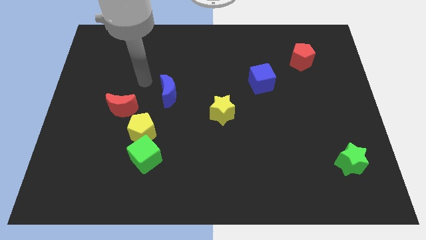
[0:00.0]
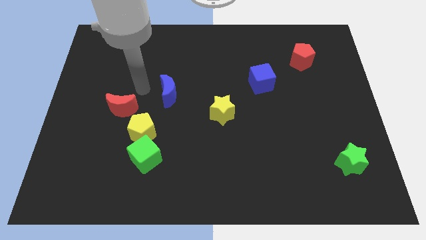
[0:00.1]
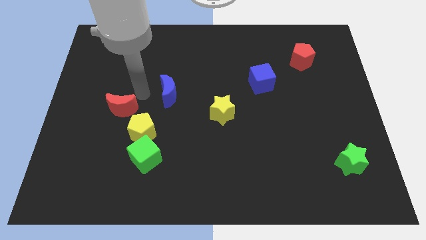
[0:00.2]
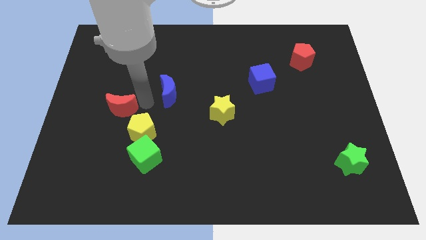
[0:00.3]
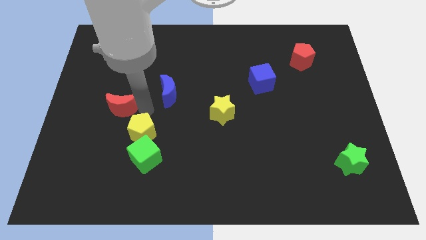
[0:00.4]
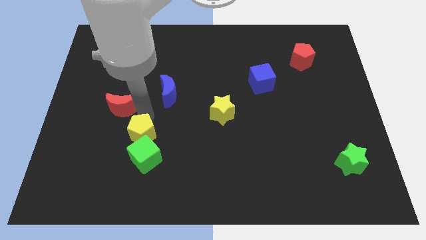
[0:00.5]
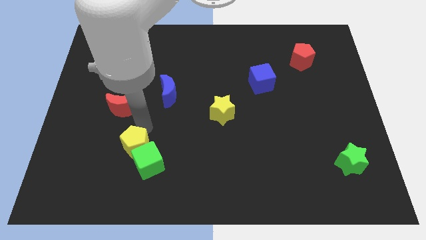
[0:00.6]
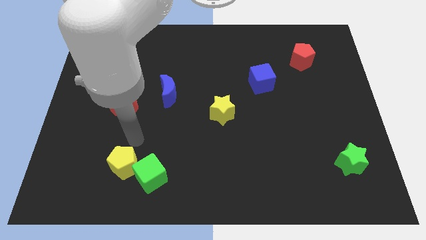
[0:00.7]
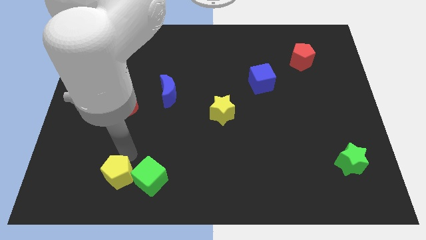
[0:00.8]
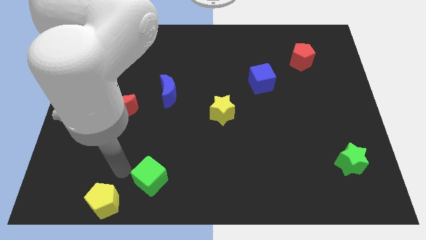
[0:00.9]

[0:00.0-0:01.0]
separate the green cube from the yellow pentagon

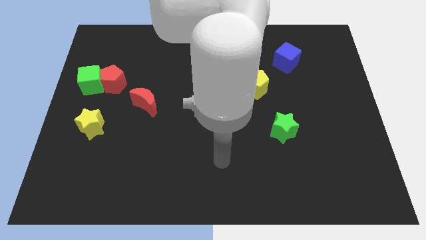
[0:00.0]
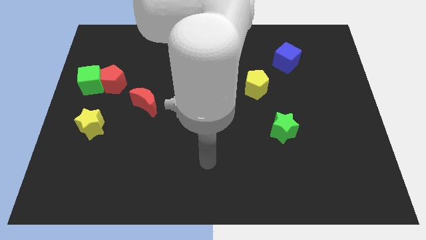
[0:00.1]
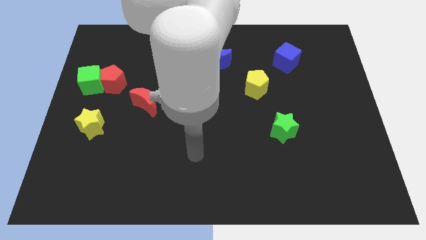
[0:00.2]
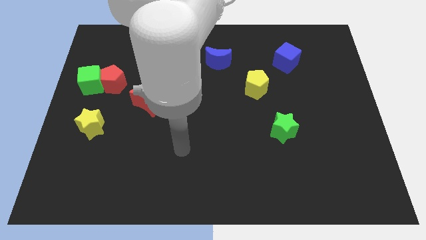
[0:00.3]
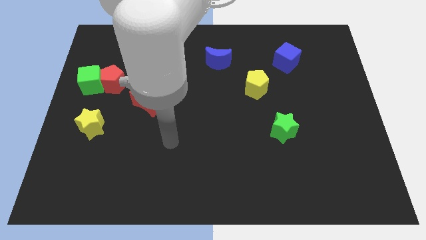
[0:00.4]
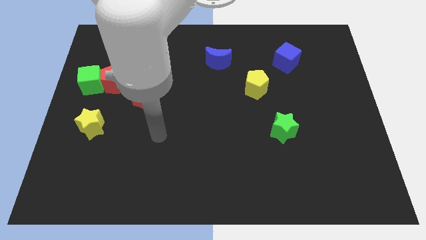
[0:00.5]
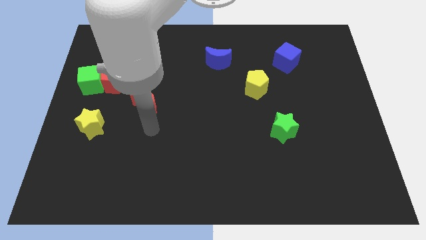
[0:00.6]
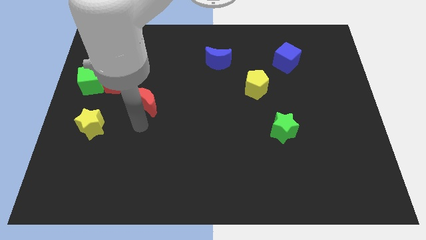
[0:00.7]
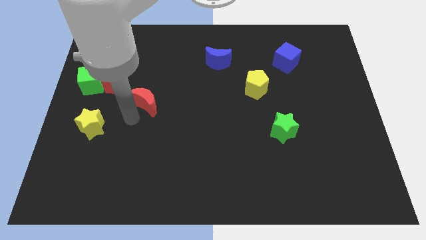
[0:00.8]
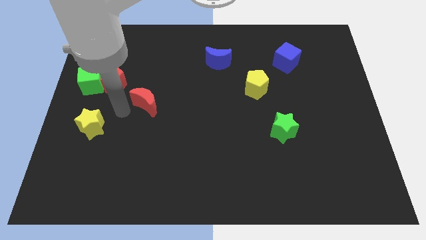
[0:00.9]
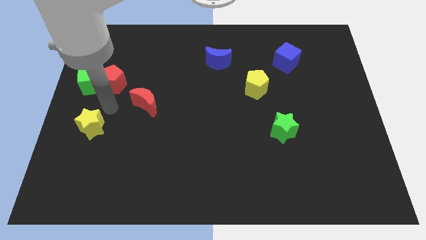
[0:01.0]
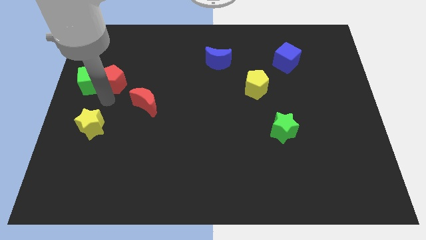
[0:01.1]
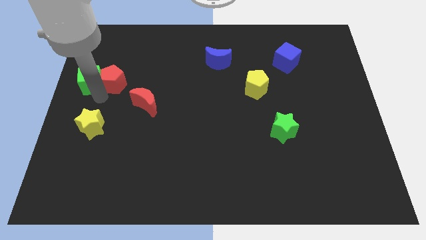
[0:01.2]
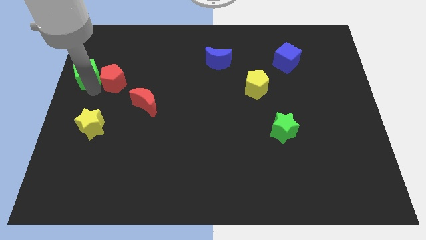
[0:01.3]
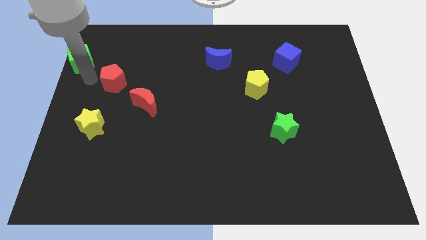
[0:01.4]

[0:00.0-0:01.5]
move the red pentagon away from the green cube

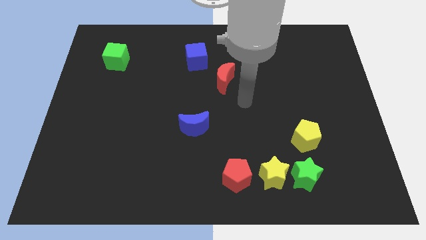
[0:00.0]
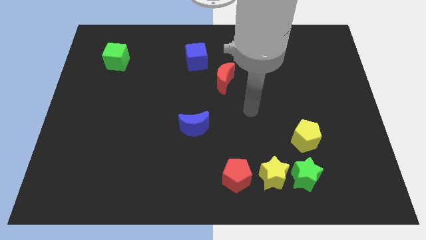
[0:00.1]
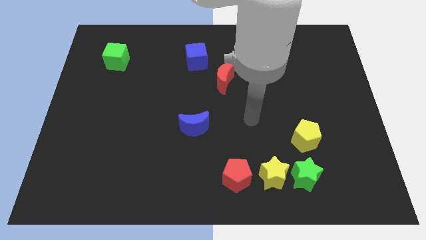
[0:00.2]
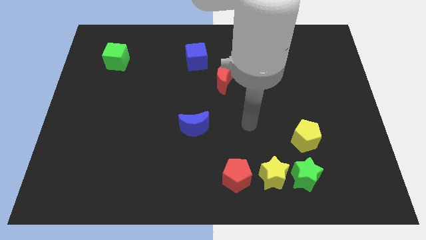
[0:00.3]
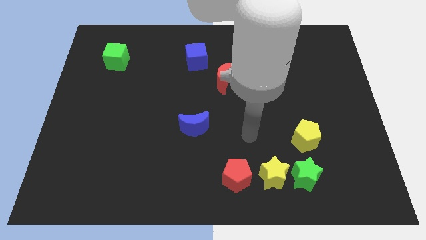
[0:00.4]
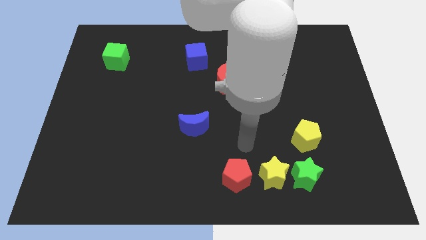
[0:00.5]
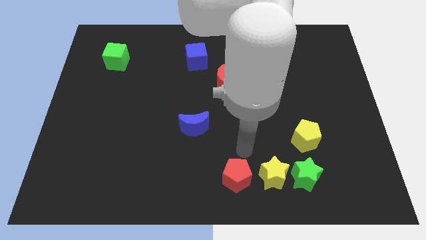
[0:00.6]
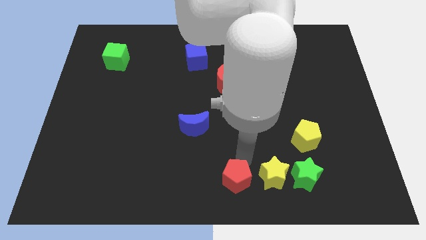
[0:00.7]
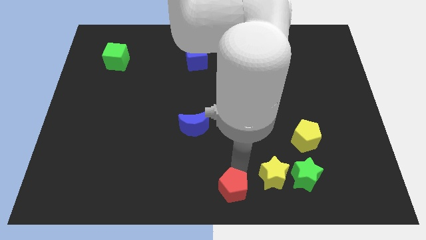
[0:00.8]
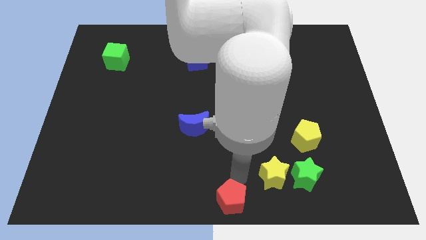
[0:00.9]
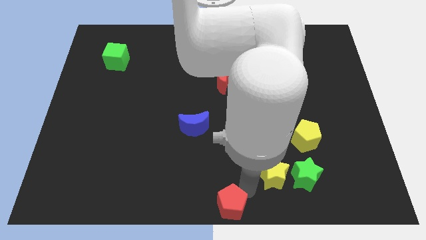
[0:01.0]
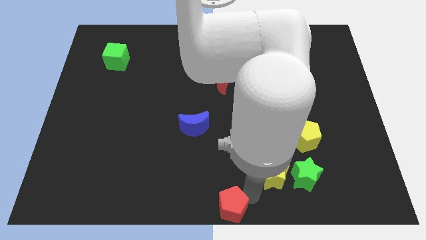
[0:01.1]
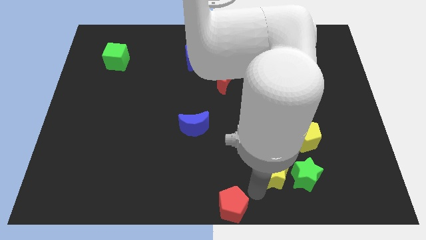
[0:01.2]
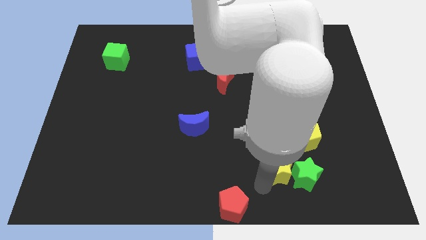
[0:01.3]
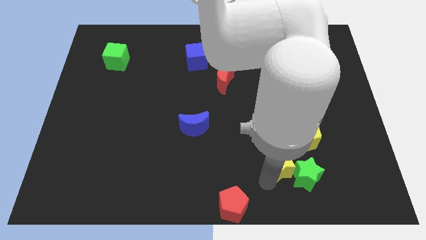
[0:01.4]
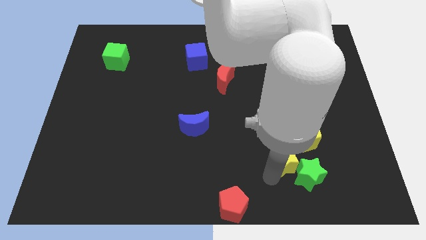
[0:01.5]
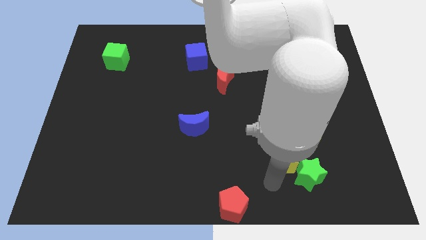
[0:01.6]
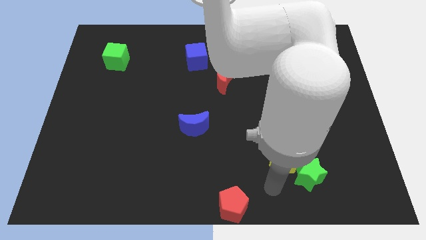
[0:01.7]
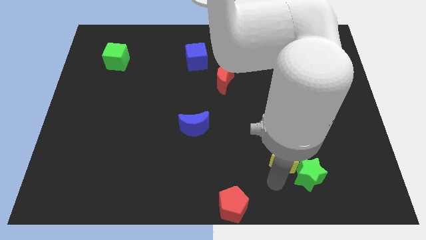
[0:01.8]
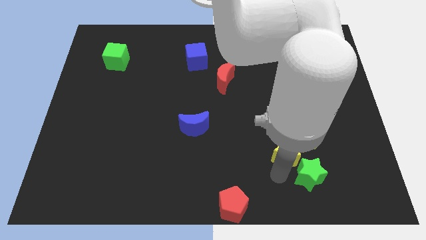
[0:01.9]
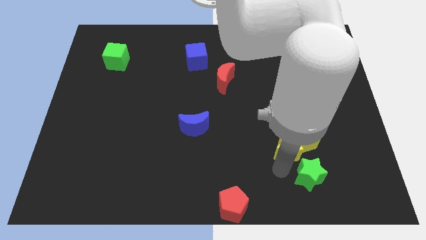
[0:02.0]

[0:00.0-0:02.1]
move the yellow star away from the green star and red pentagon

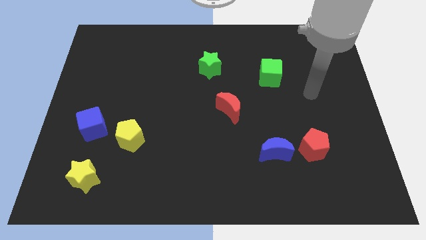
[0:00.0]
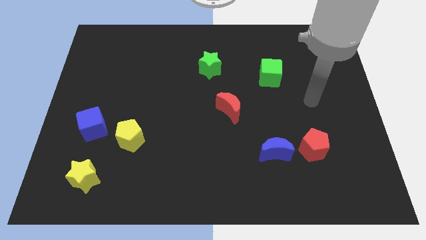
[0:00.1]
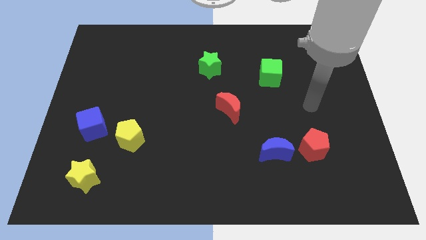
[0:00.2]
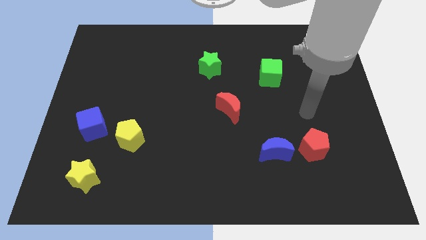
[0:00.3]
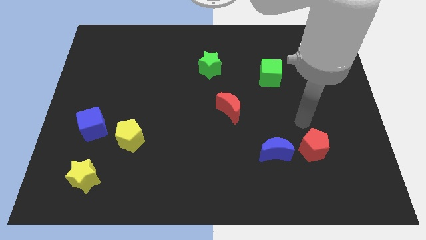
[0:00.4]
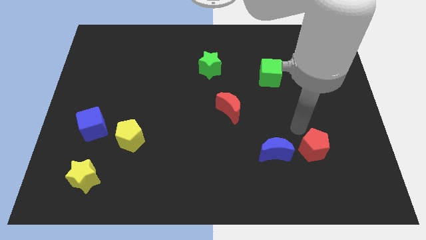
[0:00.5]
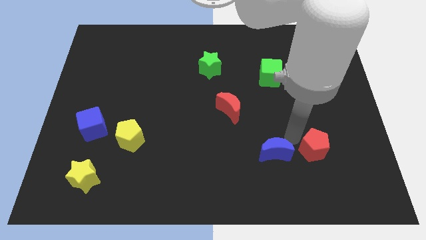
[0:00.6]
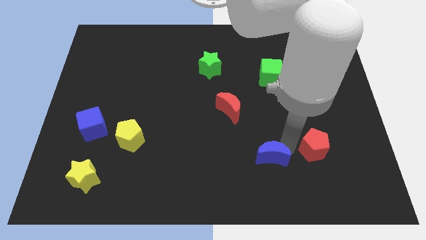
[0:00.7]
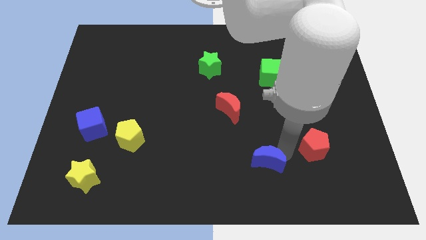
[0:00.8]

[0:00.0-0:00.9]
separate the red pentagon from the blue moon

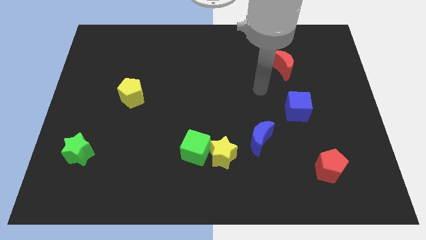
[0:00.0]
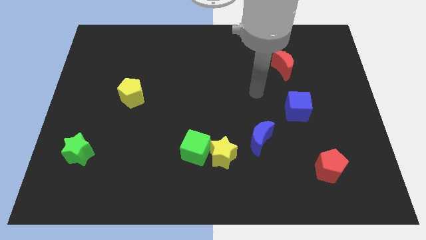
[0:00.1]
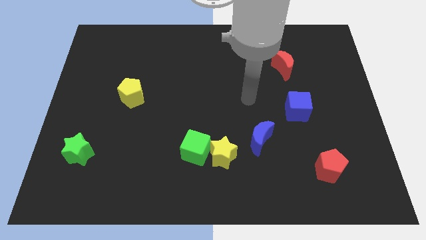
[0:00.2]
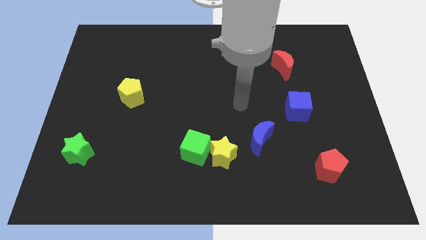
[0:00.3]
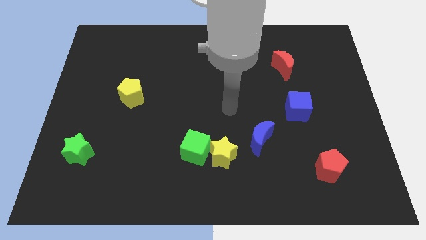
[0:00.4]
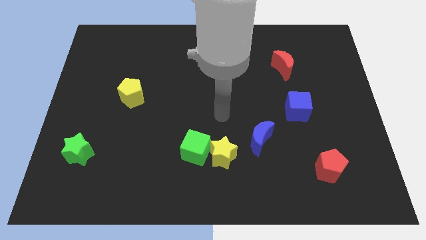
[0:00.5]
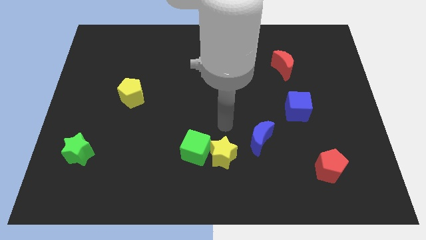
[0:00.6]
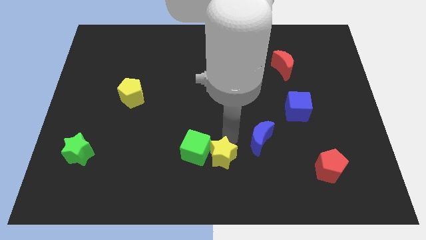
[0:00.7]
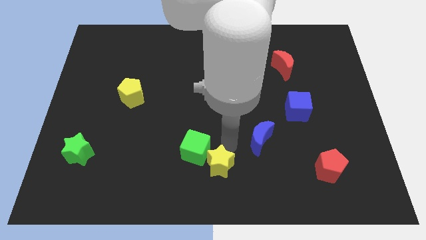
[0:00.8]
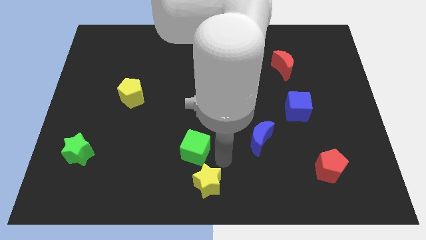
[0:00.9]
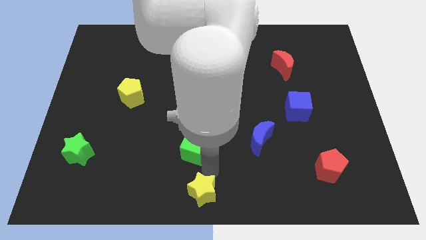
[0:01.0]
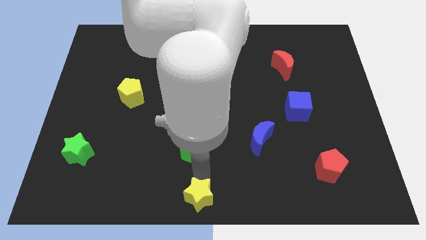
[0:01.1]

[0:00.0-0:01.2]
move the green cube away from the yellow star

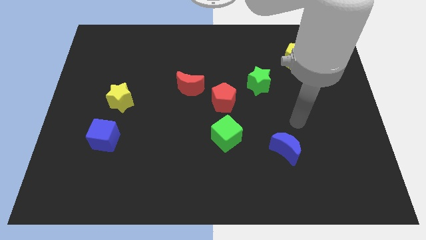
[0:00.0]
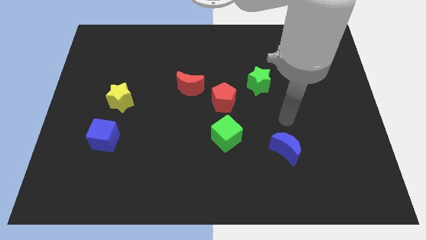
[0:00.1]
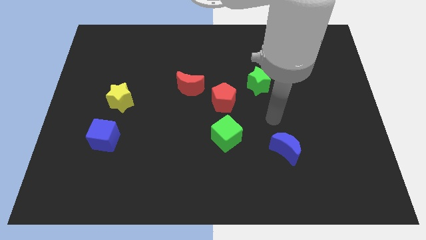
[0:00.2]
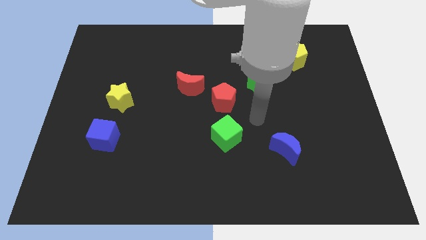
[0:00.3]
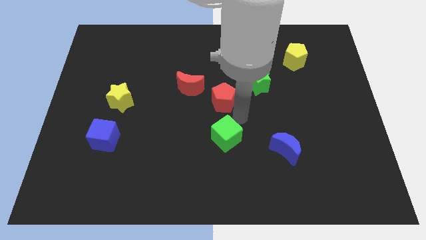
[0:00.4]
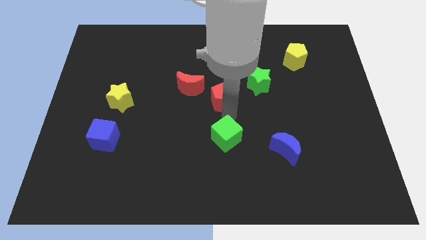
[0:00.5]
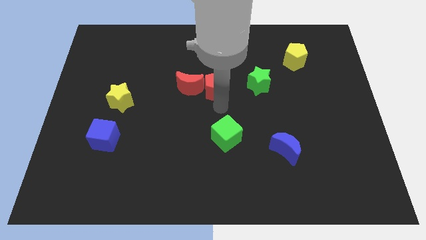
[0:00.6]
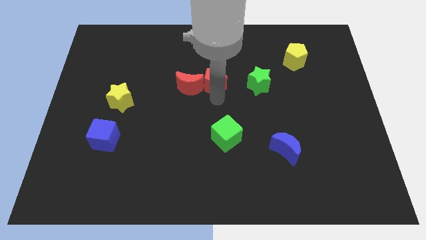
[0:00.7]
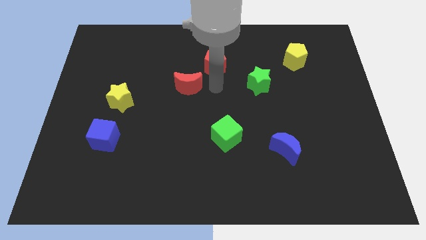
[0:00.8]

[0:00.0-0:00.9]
move the red moon away from the red pentagon

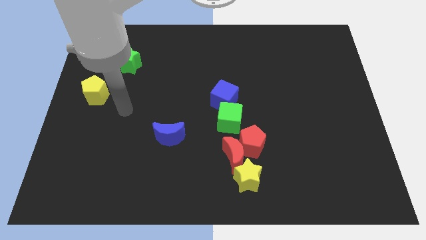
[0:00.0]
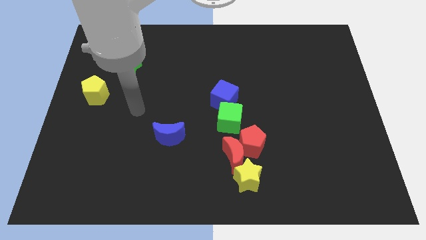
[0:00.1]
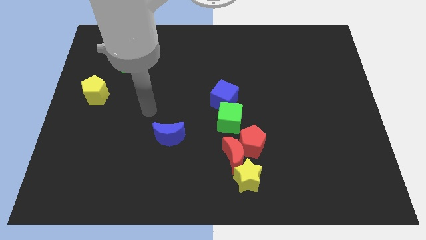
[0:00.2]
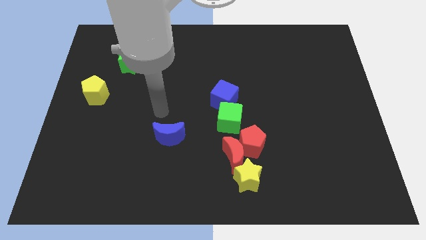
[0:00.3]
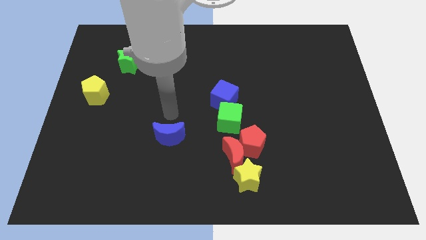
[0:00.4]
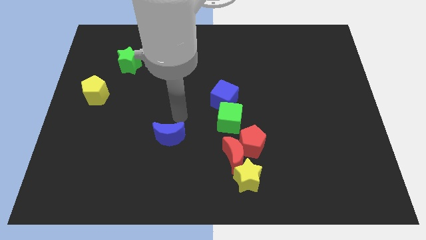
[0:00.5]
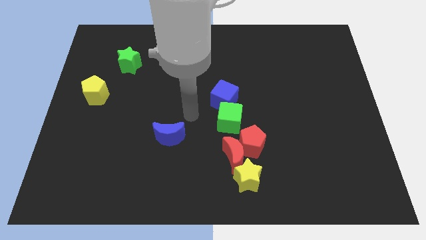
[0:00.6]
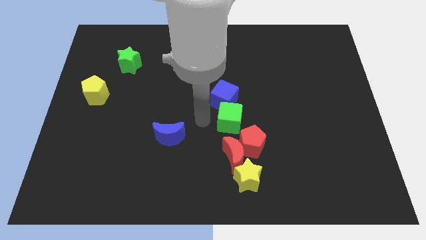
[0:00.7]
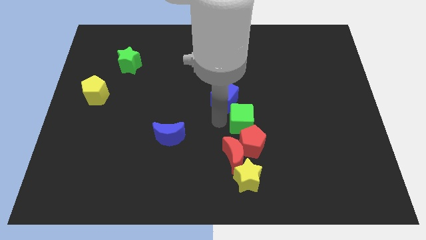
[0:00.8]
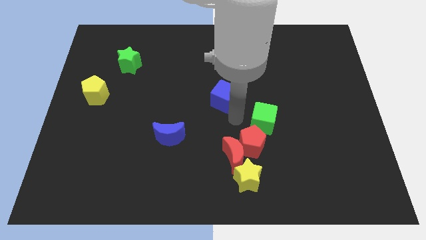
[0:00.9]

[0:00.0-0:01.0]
separate the blue cube from the green cube

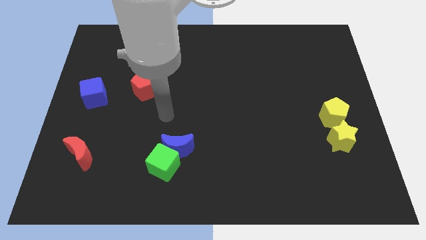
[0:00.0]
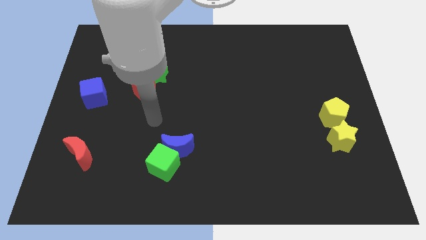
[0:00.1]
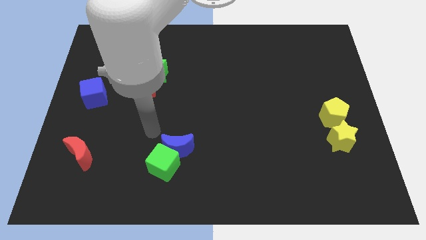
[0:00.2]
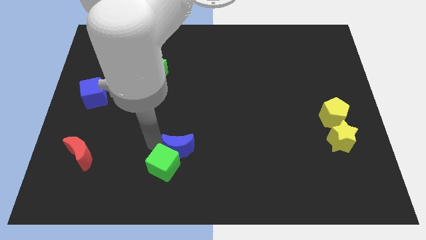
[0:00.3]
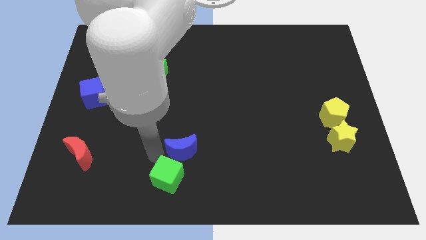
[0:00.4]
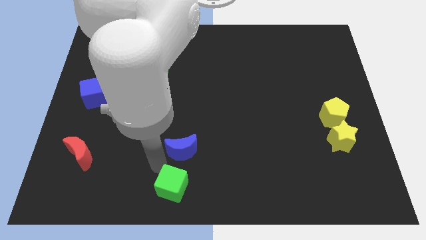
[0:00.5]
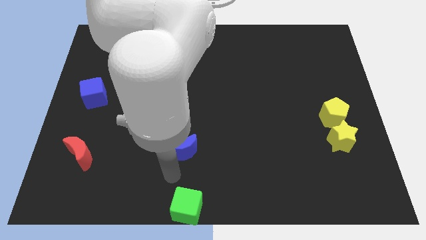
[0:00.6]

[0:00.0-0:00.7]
separate the blue moon from the green cube
